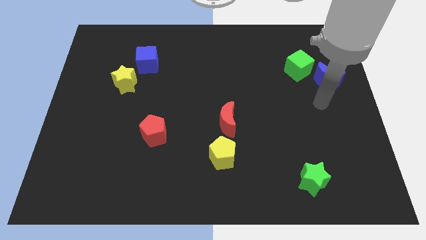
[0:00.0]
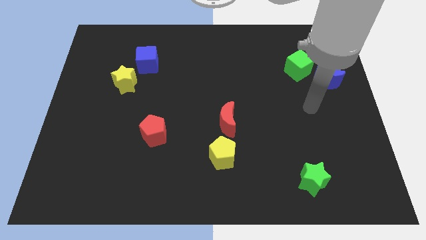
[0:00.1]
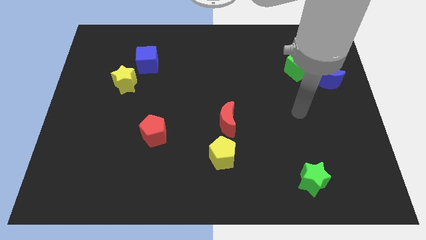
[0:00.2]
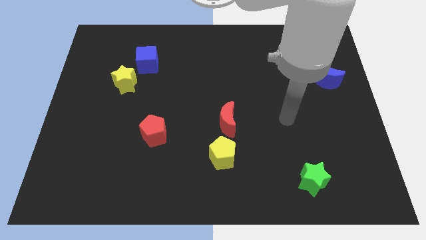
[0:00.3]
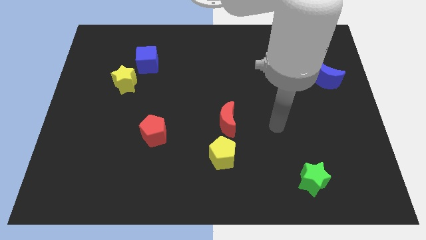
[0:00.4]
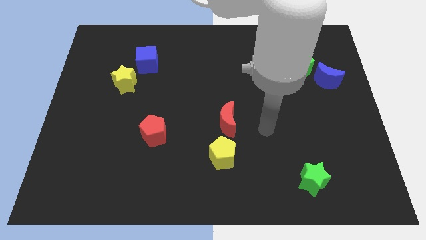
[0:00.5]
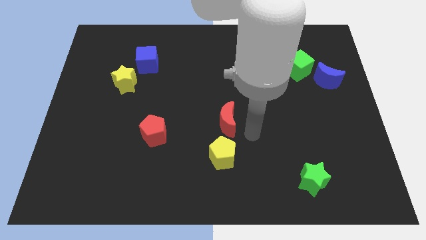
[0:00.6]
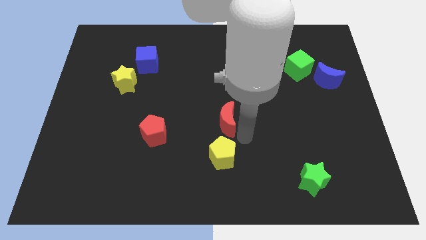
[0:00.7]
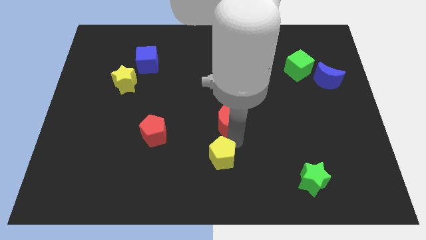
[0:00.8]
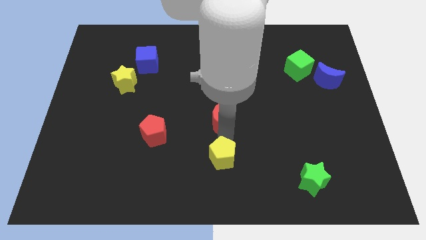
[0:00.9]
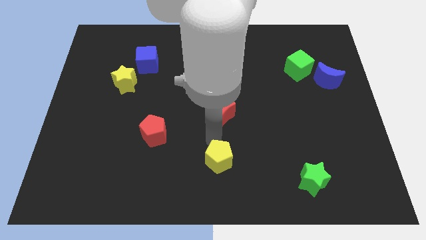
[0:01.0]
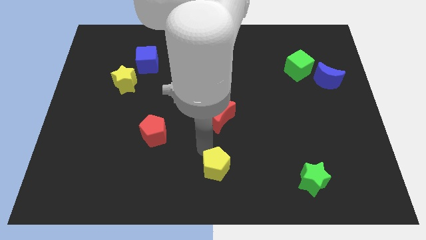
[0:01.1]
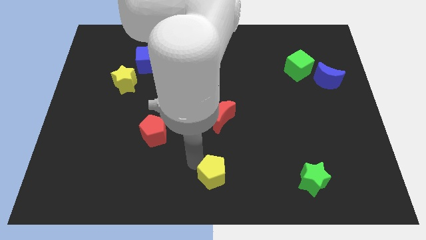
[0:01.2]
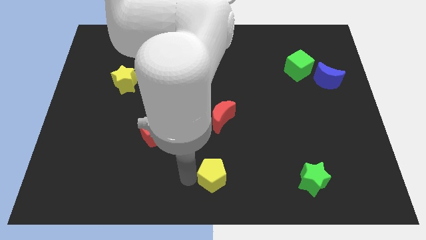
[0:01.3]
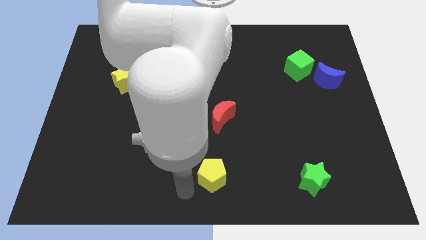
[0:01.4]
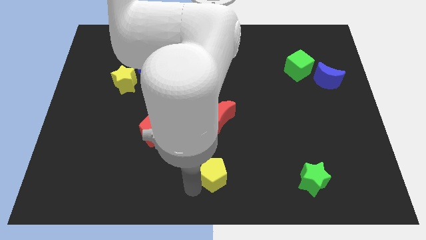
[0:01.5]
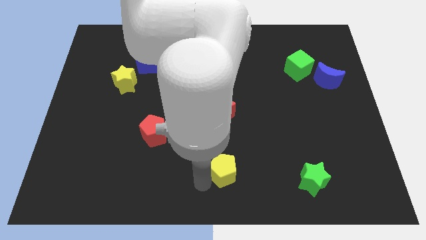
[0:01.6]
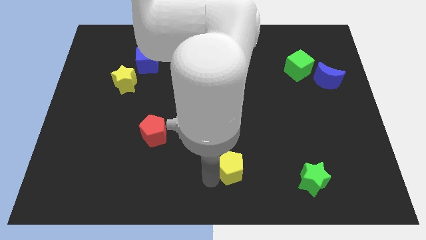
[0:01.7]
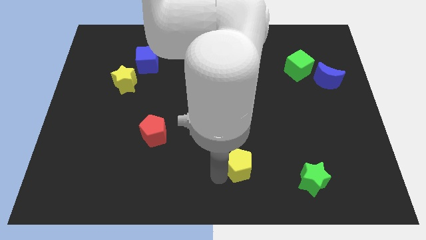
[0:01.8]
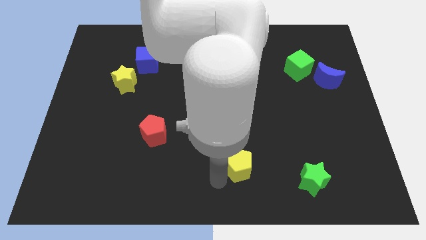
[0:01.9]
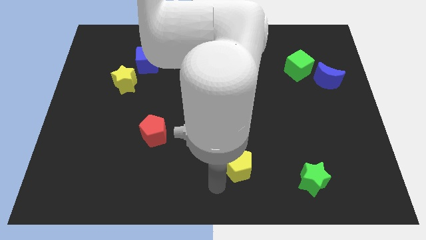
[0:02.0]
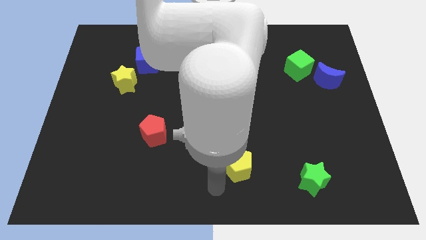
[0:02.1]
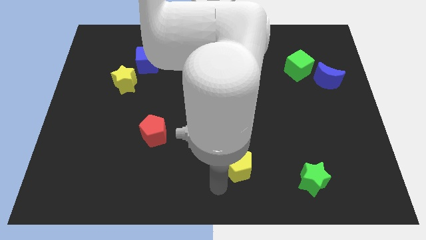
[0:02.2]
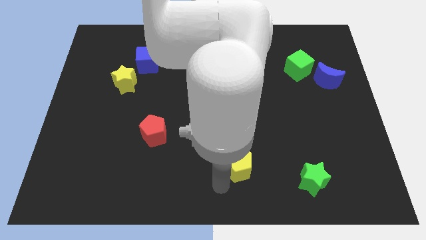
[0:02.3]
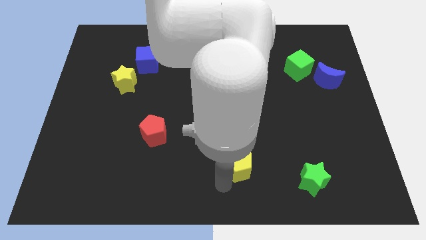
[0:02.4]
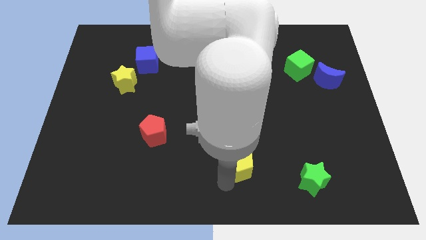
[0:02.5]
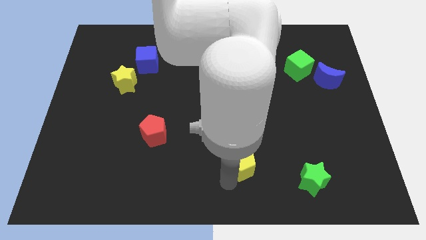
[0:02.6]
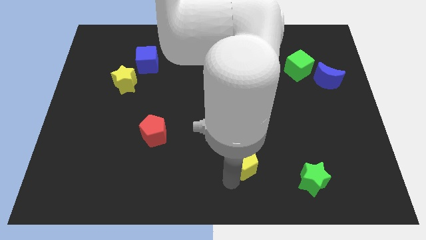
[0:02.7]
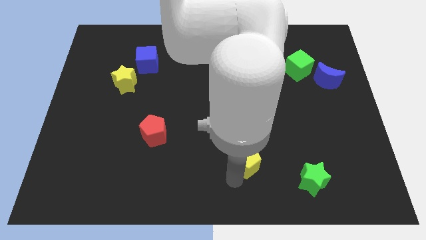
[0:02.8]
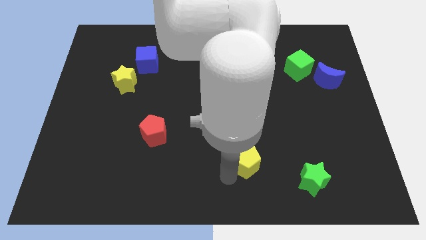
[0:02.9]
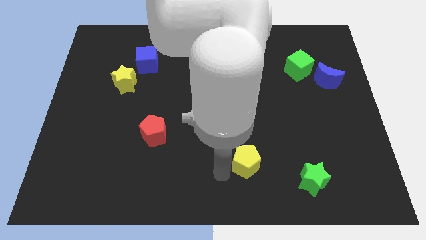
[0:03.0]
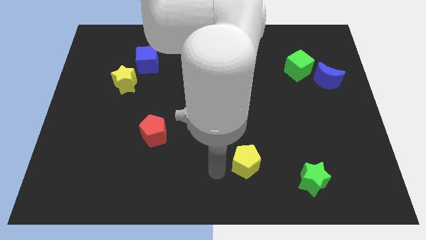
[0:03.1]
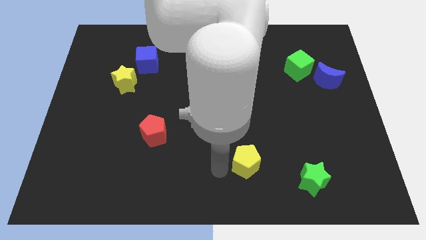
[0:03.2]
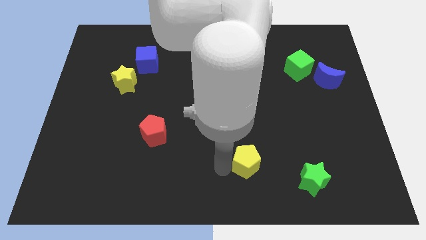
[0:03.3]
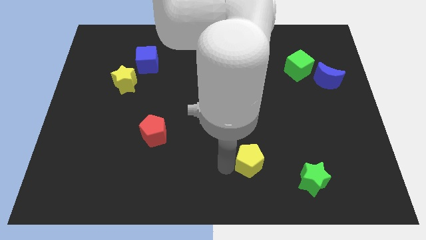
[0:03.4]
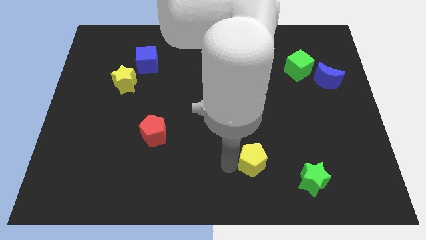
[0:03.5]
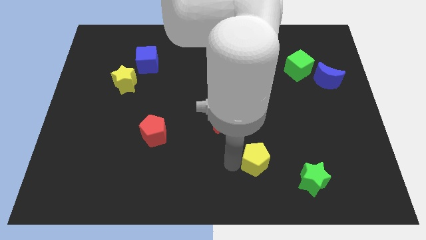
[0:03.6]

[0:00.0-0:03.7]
move the yellow pentagon a little to the right

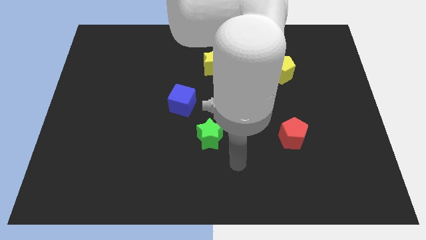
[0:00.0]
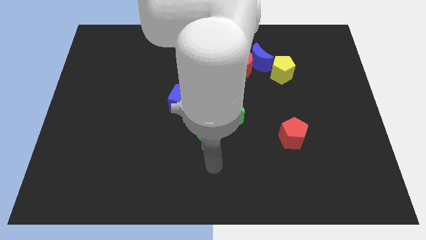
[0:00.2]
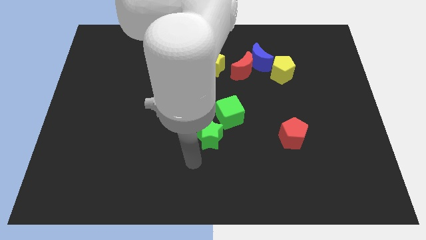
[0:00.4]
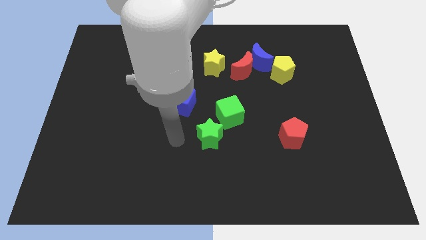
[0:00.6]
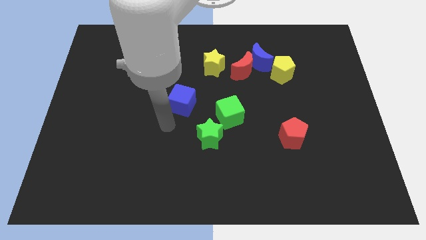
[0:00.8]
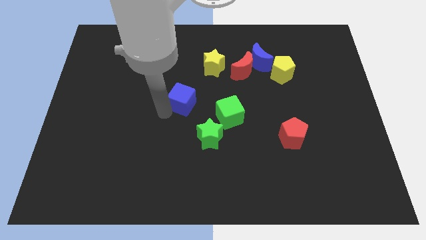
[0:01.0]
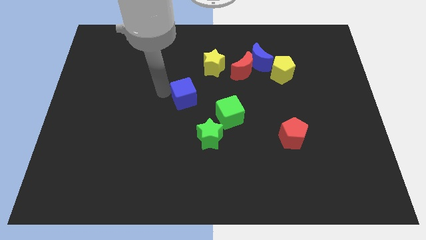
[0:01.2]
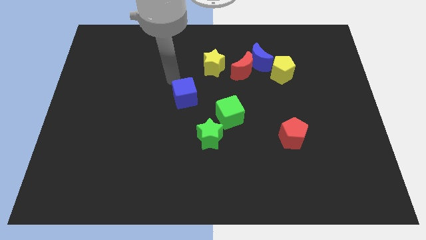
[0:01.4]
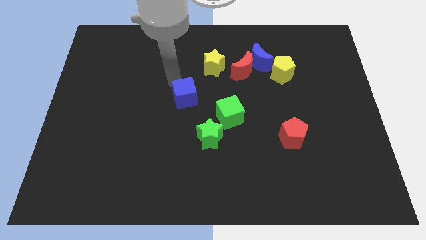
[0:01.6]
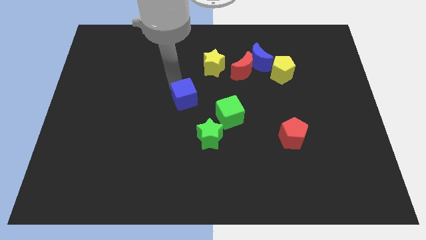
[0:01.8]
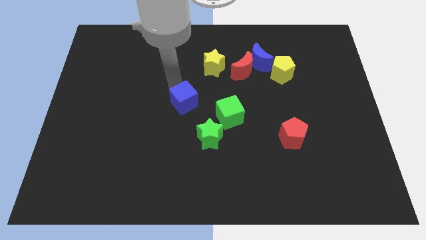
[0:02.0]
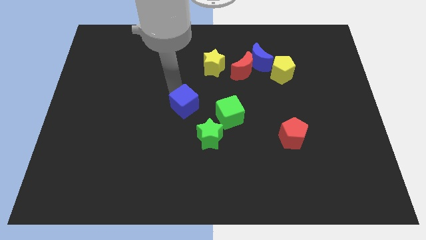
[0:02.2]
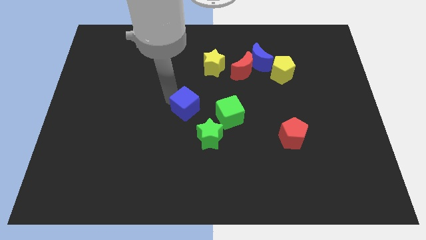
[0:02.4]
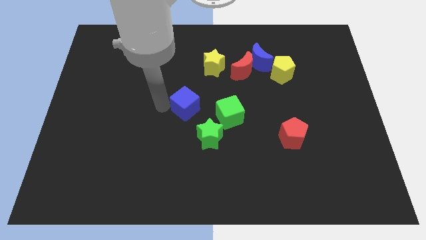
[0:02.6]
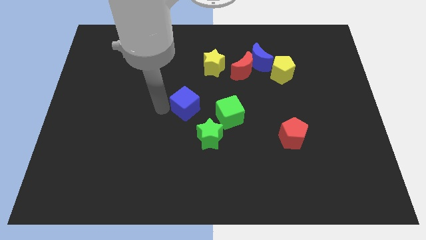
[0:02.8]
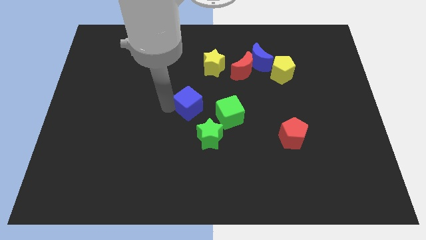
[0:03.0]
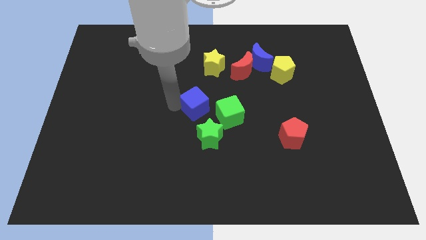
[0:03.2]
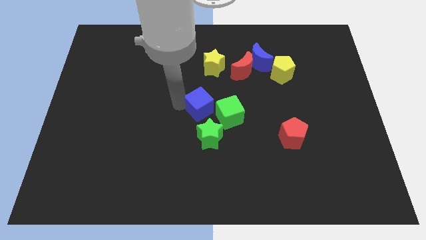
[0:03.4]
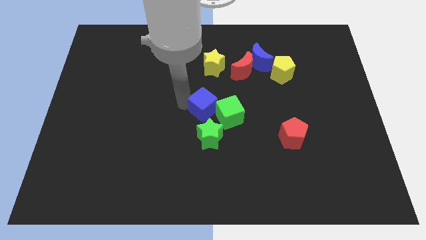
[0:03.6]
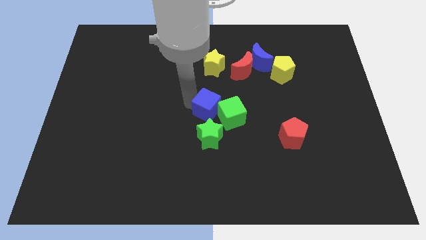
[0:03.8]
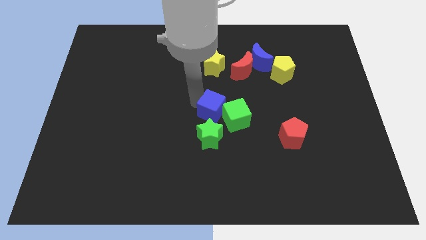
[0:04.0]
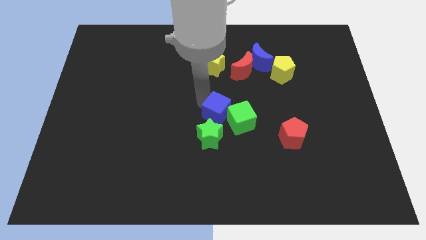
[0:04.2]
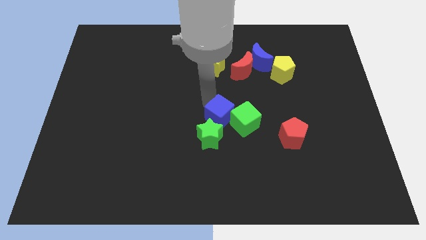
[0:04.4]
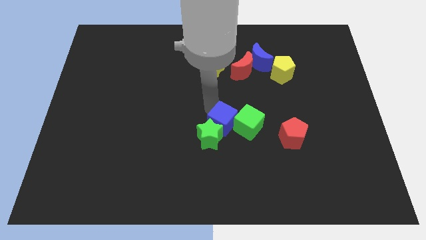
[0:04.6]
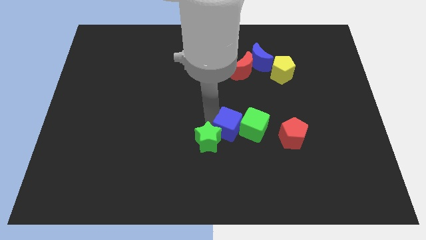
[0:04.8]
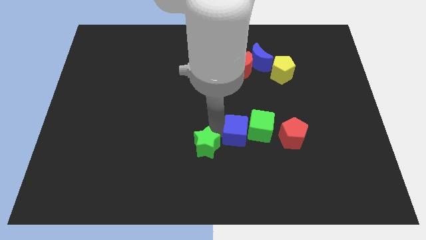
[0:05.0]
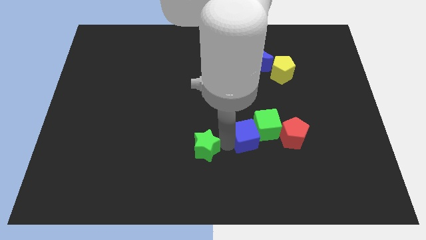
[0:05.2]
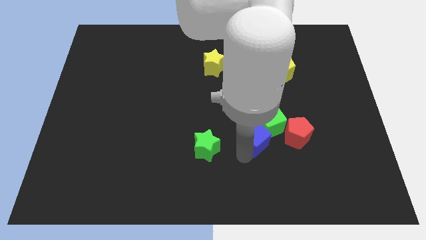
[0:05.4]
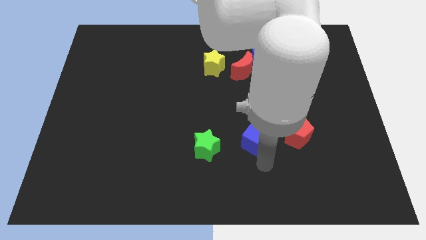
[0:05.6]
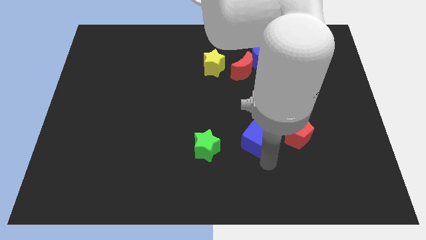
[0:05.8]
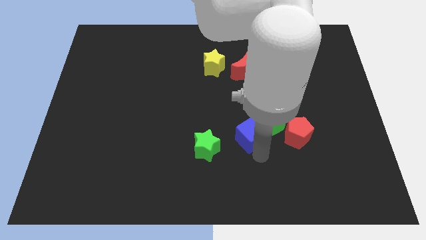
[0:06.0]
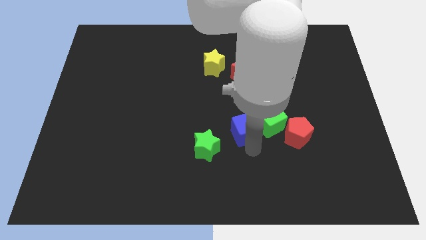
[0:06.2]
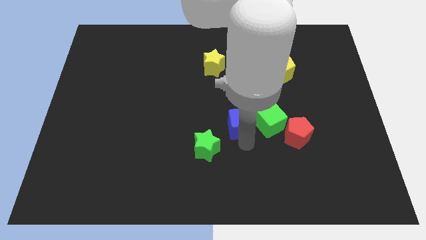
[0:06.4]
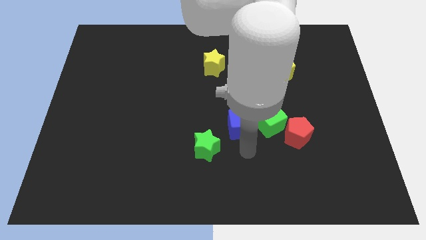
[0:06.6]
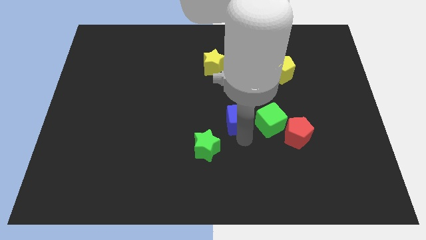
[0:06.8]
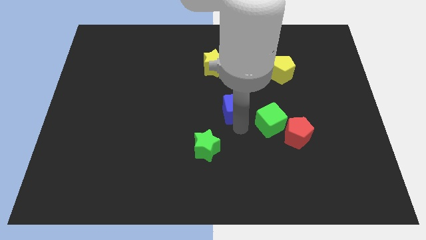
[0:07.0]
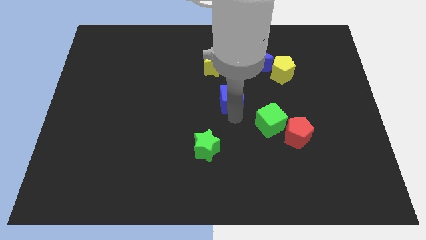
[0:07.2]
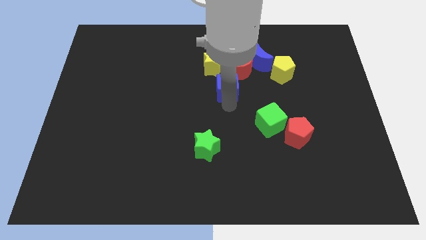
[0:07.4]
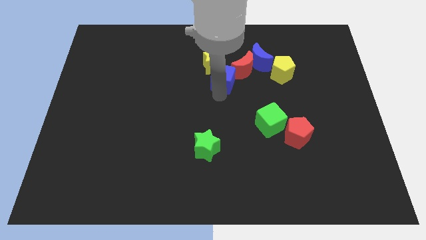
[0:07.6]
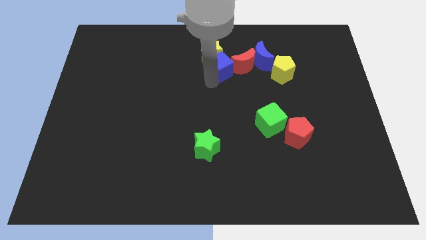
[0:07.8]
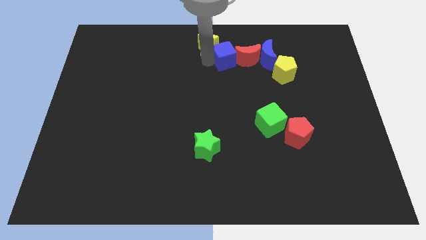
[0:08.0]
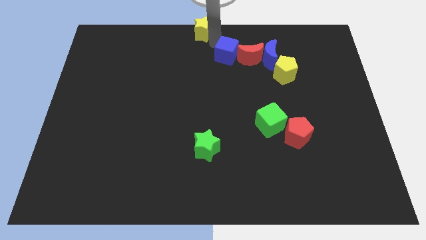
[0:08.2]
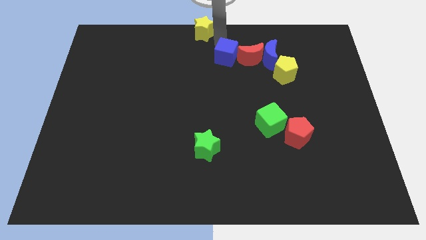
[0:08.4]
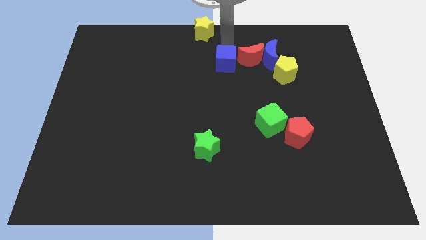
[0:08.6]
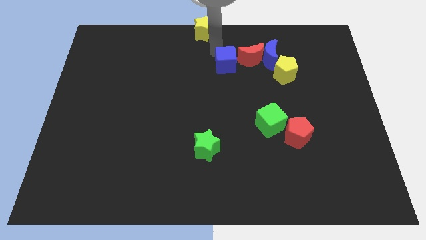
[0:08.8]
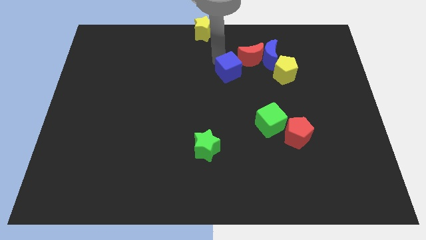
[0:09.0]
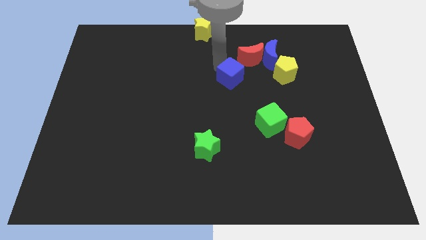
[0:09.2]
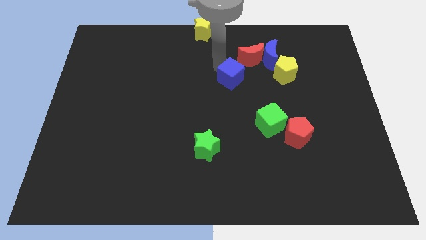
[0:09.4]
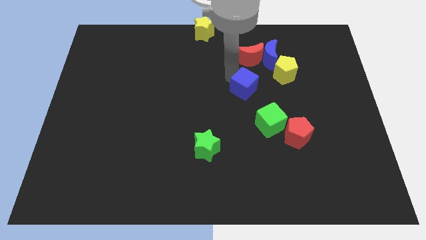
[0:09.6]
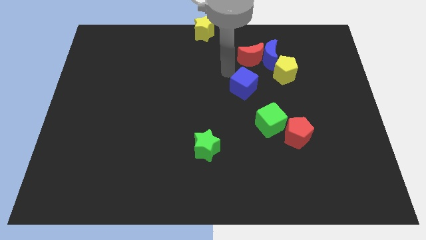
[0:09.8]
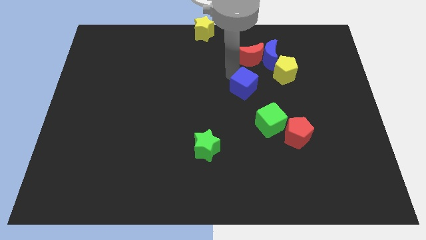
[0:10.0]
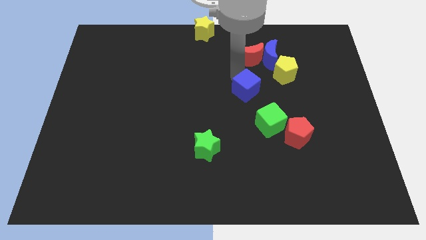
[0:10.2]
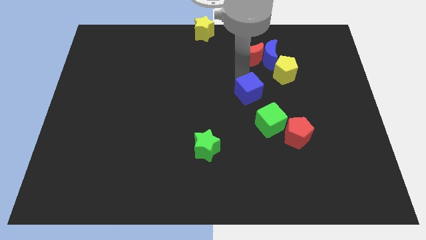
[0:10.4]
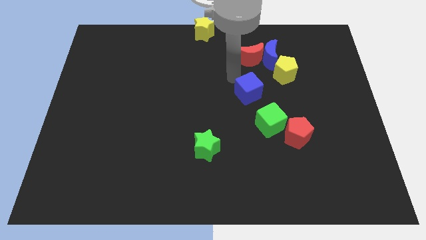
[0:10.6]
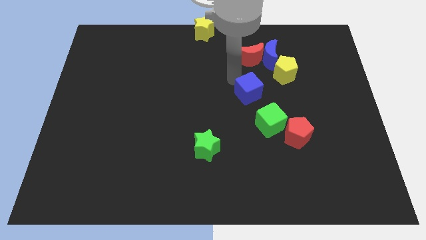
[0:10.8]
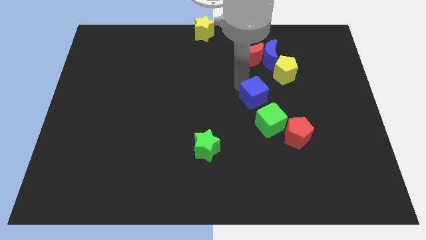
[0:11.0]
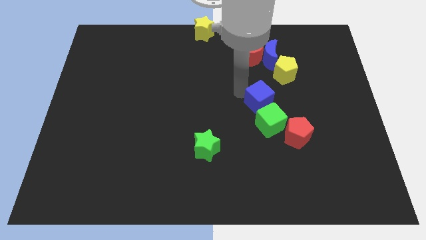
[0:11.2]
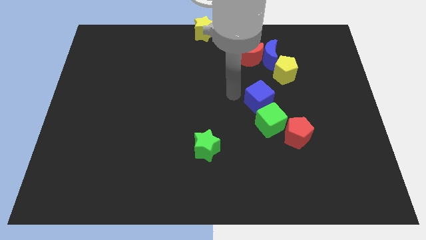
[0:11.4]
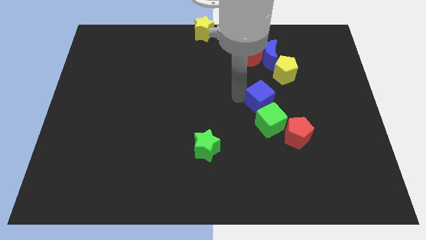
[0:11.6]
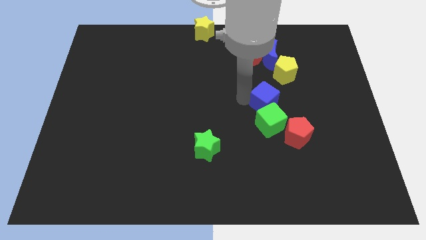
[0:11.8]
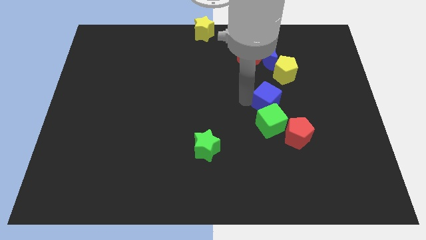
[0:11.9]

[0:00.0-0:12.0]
move the blue cube right
